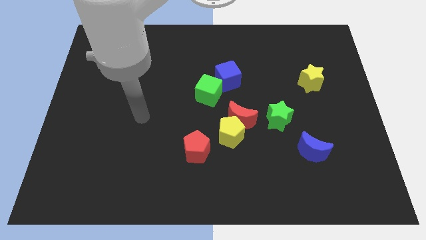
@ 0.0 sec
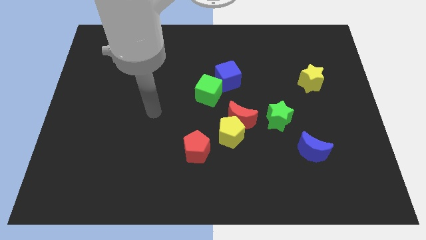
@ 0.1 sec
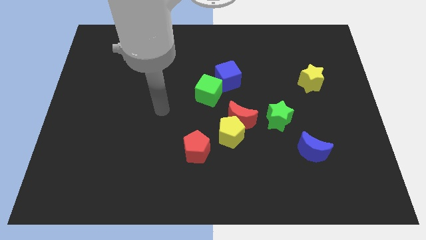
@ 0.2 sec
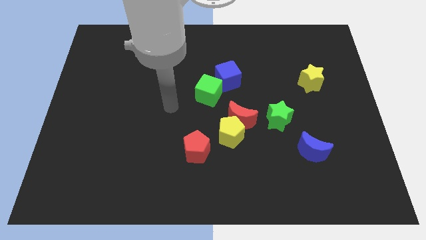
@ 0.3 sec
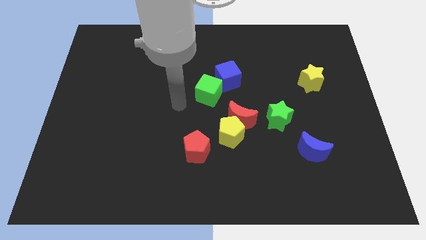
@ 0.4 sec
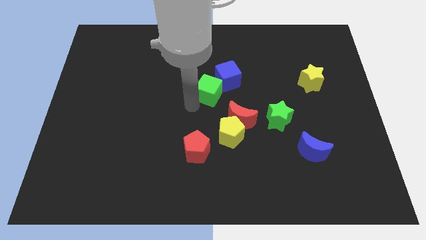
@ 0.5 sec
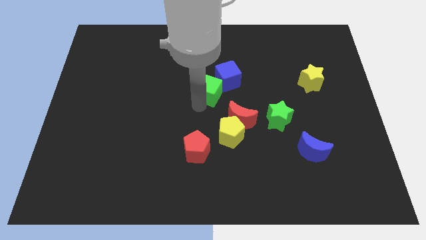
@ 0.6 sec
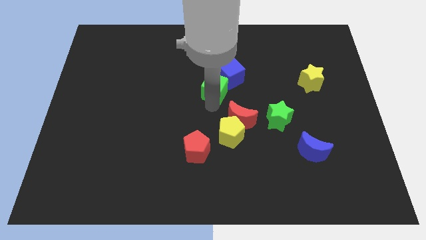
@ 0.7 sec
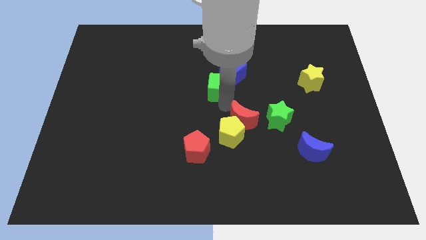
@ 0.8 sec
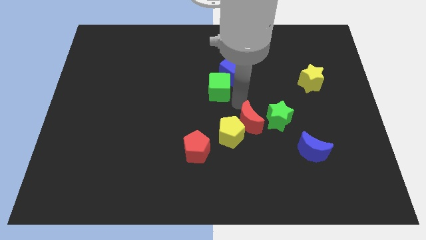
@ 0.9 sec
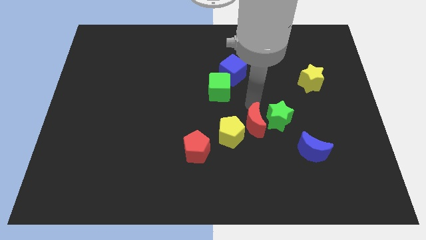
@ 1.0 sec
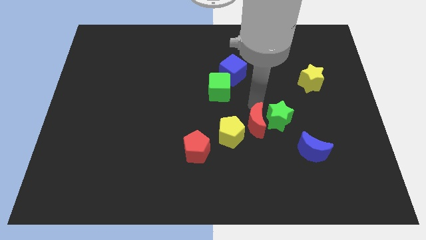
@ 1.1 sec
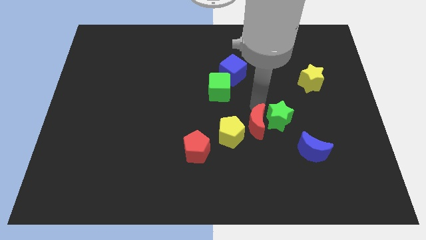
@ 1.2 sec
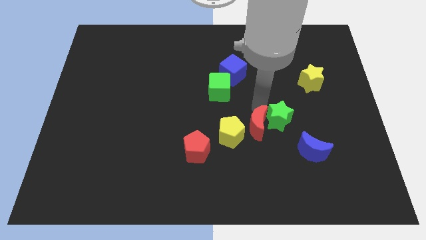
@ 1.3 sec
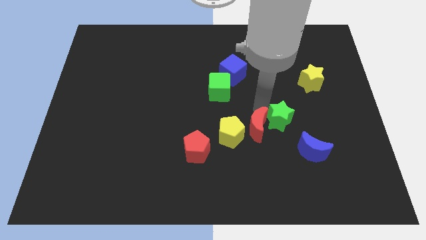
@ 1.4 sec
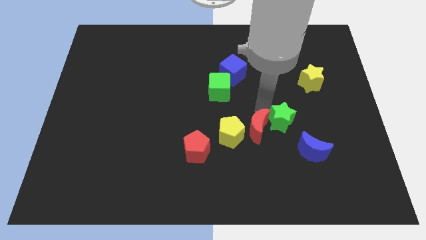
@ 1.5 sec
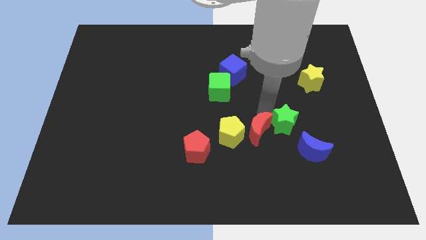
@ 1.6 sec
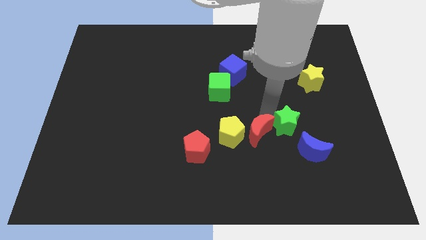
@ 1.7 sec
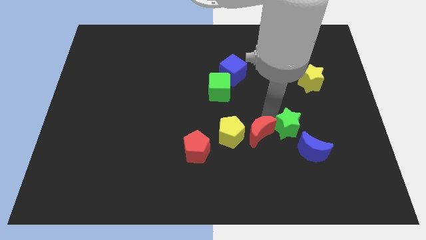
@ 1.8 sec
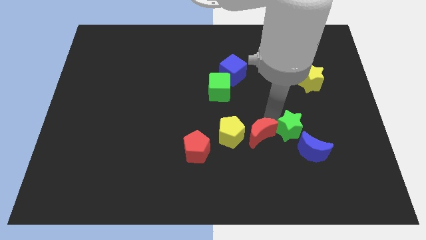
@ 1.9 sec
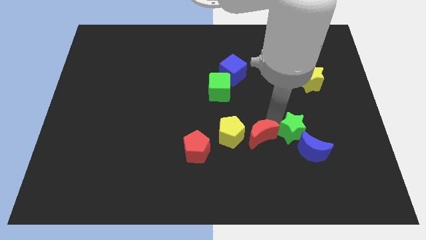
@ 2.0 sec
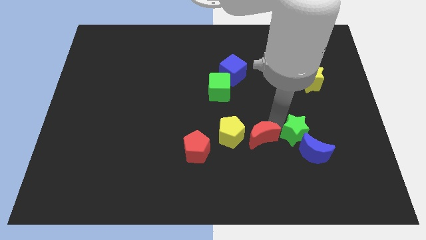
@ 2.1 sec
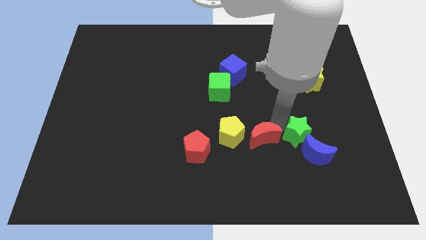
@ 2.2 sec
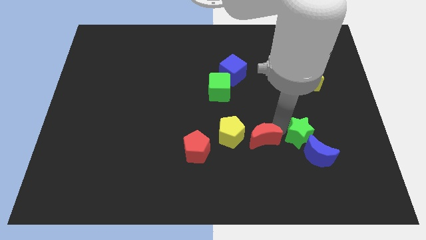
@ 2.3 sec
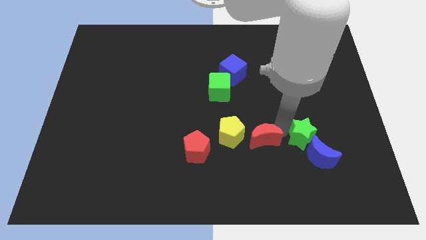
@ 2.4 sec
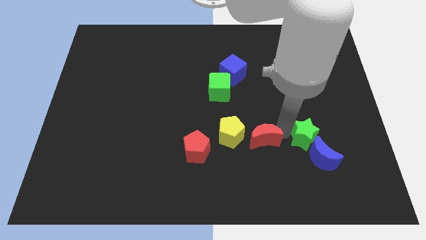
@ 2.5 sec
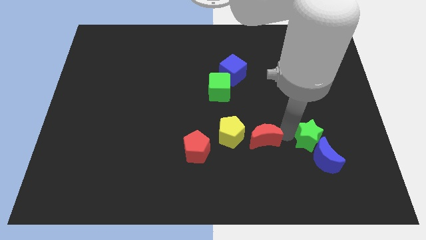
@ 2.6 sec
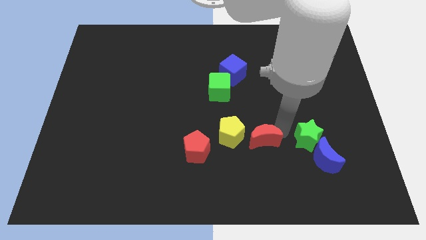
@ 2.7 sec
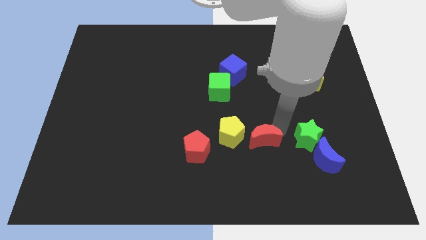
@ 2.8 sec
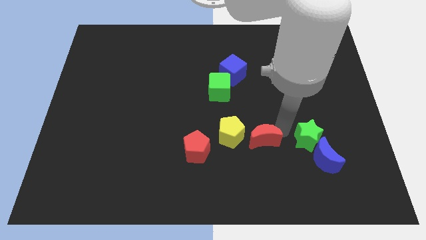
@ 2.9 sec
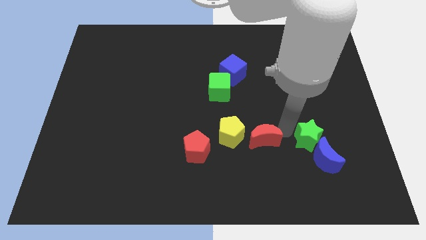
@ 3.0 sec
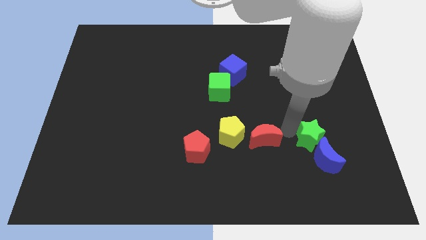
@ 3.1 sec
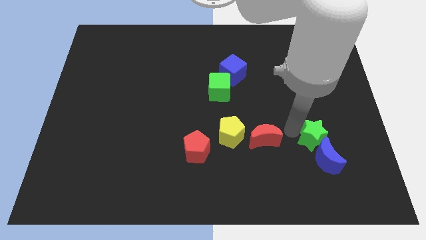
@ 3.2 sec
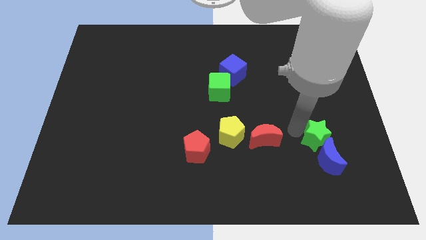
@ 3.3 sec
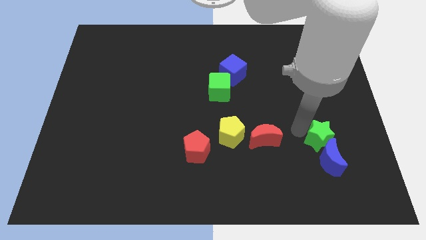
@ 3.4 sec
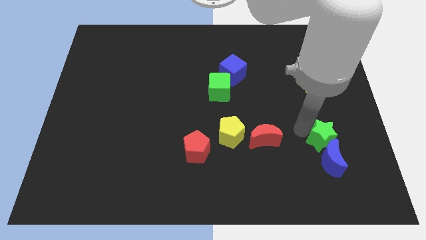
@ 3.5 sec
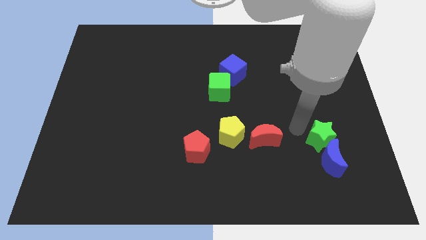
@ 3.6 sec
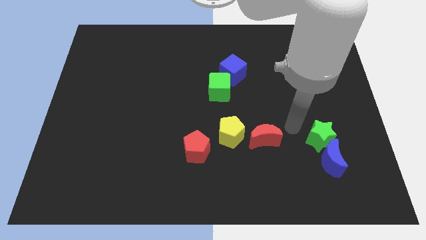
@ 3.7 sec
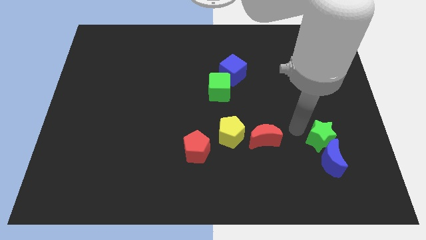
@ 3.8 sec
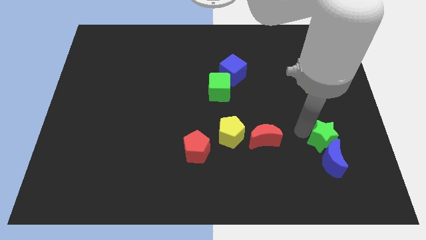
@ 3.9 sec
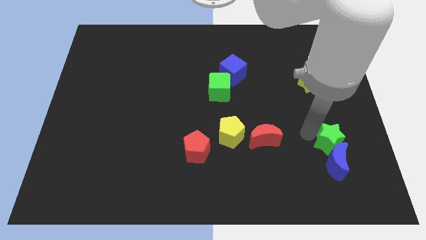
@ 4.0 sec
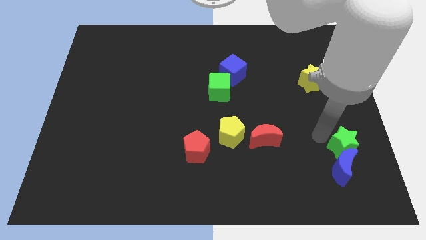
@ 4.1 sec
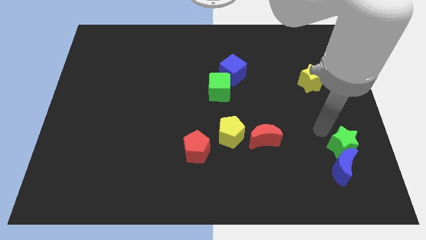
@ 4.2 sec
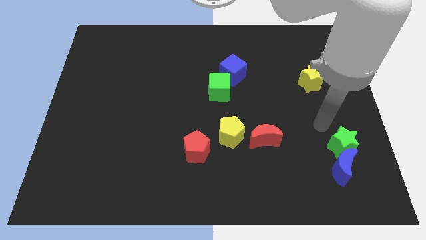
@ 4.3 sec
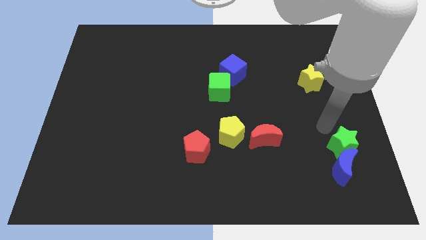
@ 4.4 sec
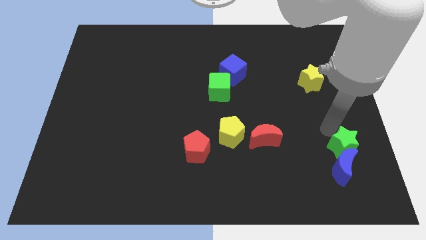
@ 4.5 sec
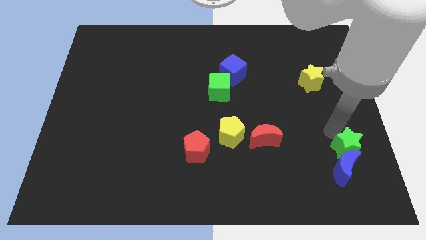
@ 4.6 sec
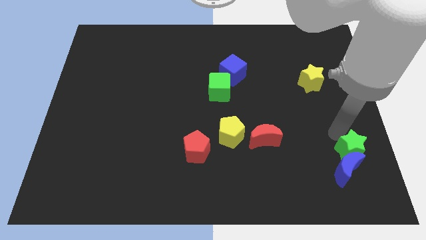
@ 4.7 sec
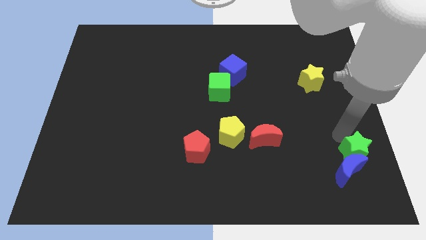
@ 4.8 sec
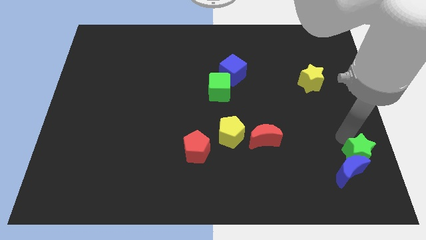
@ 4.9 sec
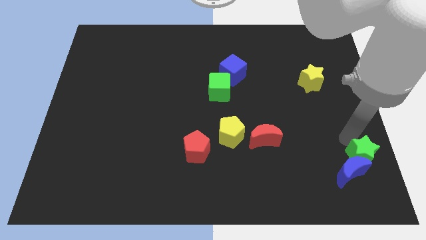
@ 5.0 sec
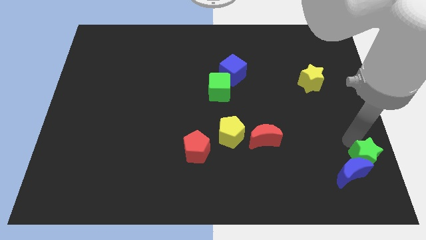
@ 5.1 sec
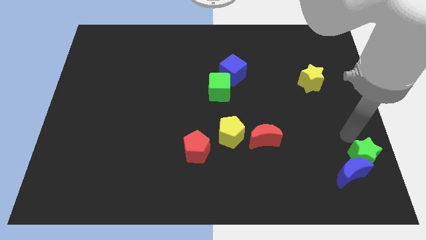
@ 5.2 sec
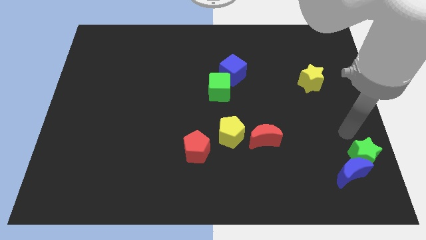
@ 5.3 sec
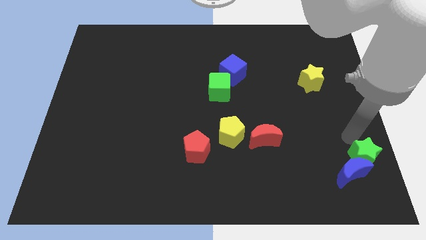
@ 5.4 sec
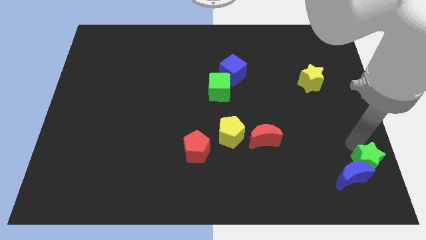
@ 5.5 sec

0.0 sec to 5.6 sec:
push the green star to the bottom right corner
